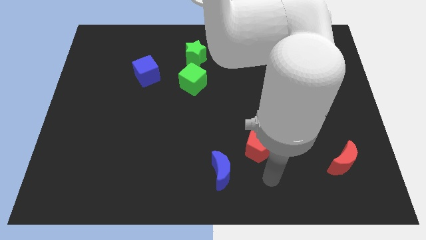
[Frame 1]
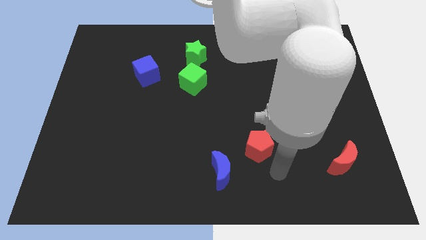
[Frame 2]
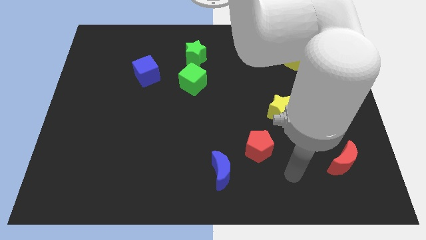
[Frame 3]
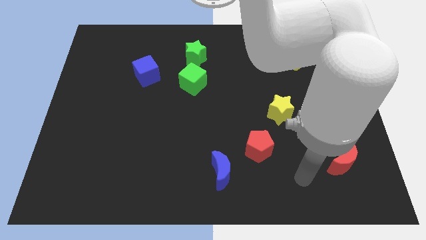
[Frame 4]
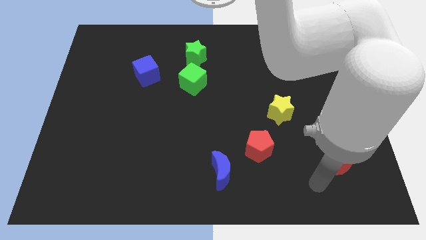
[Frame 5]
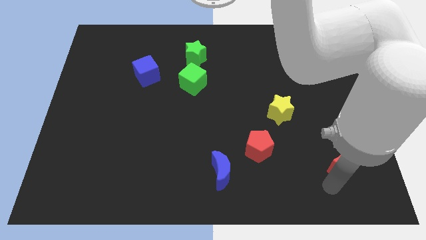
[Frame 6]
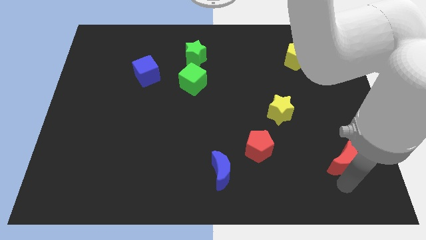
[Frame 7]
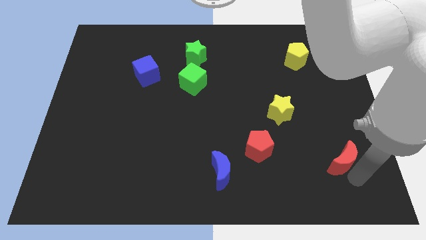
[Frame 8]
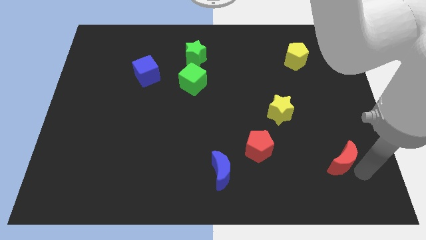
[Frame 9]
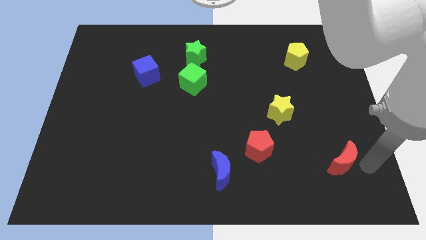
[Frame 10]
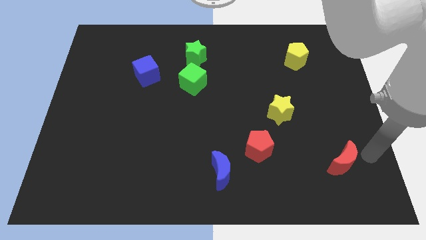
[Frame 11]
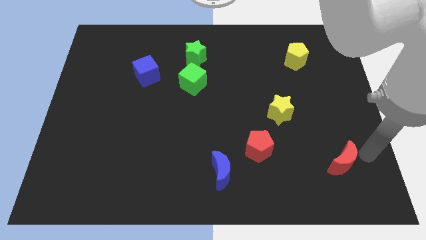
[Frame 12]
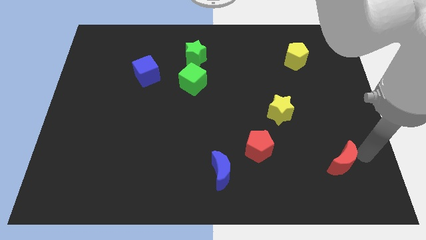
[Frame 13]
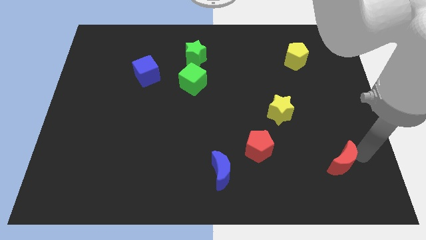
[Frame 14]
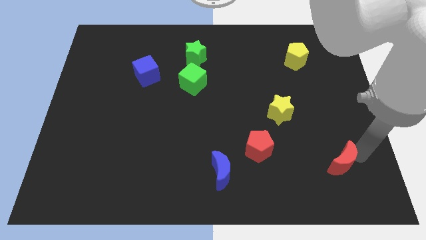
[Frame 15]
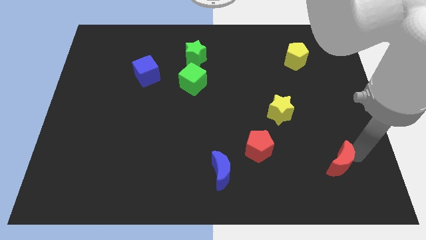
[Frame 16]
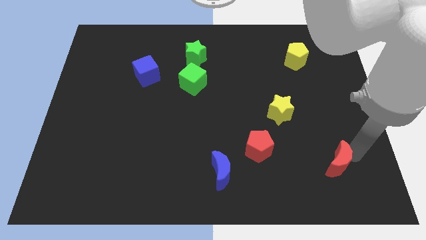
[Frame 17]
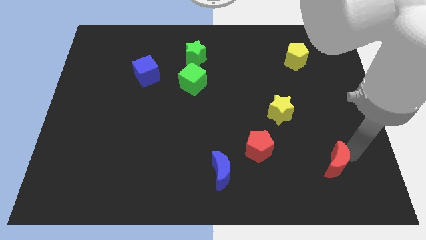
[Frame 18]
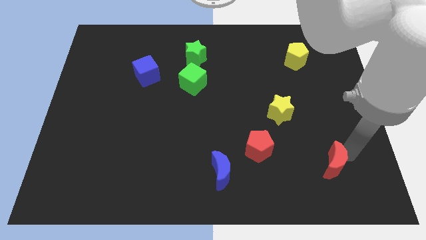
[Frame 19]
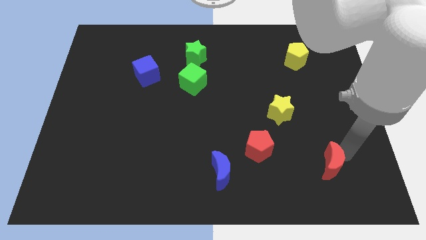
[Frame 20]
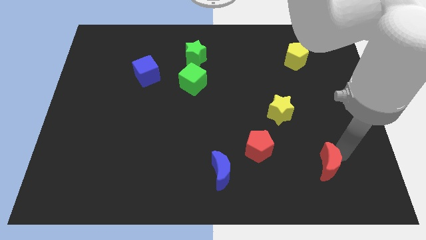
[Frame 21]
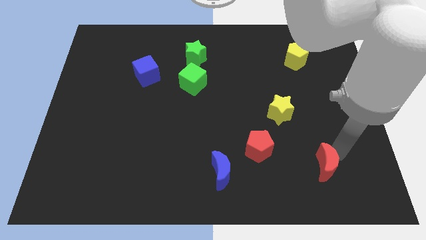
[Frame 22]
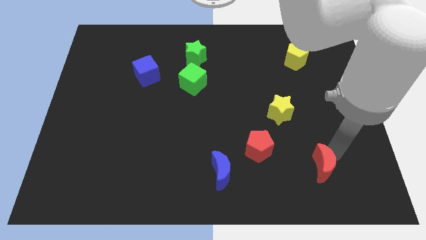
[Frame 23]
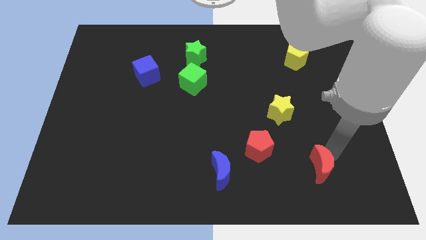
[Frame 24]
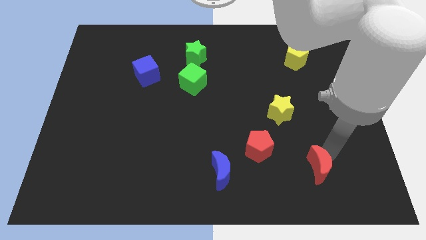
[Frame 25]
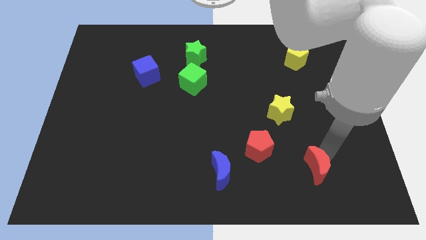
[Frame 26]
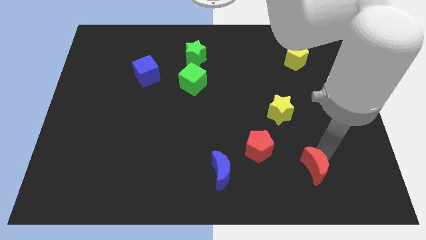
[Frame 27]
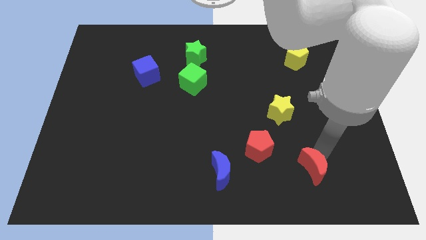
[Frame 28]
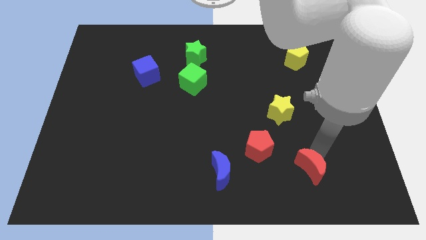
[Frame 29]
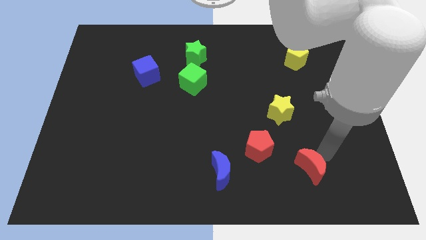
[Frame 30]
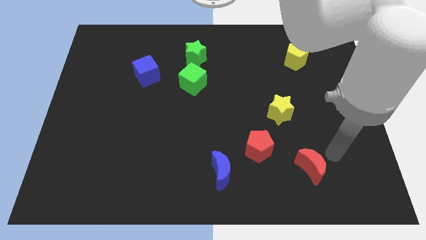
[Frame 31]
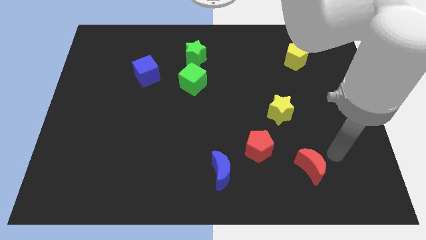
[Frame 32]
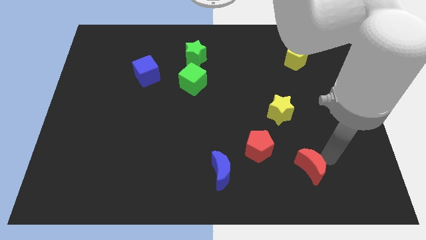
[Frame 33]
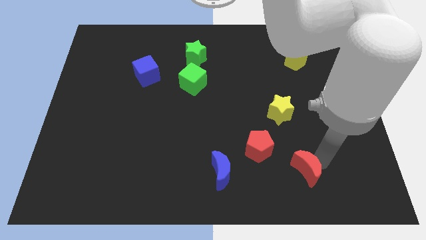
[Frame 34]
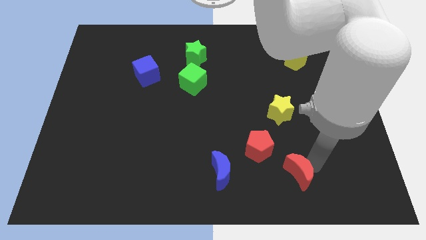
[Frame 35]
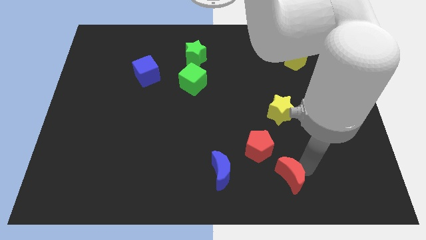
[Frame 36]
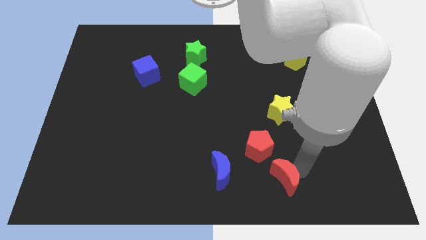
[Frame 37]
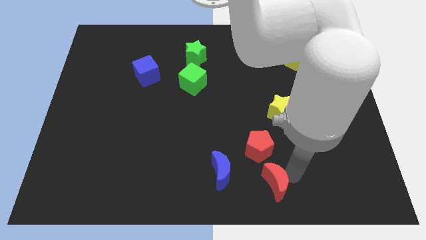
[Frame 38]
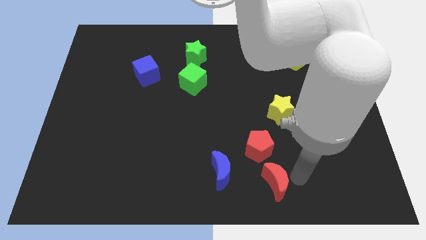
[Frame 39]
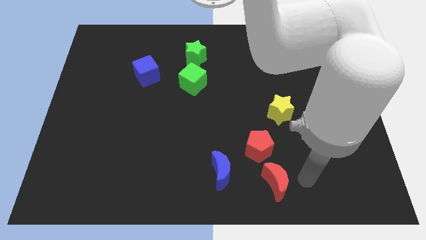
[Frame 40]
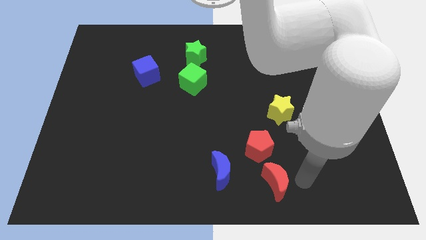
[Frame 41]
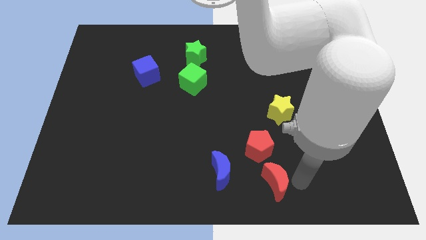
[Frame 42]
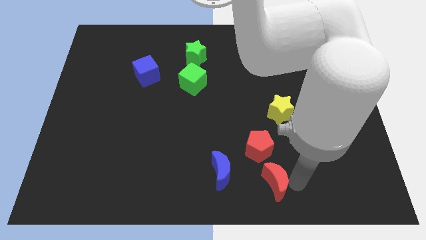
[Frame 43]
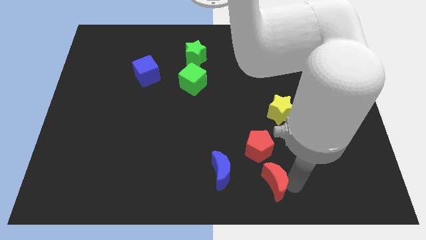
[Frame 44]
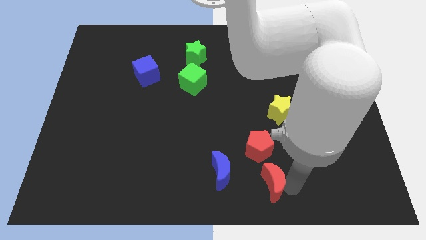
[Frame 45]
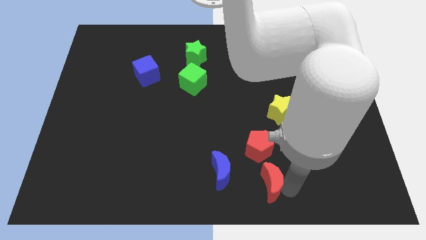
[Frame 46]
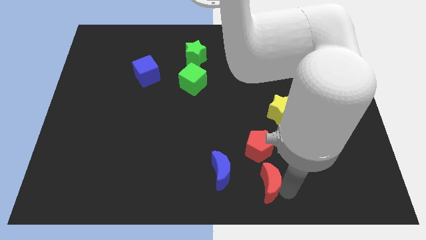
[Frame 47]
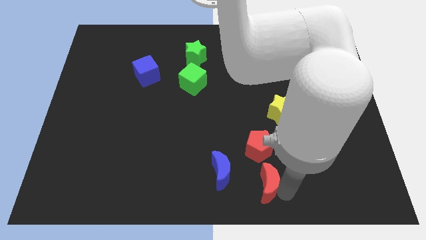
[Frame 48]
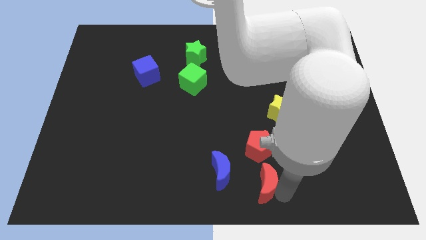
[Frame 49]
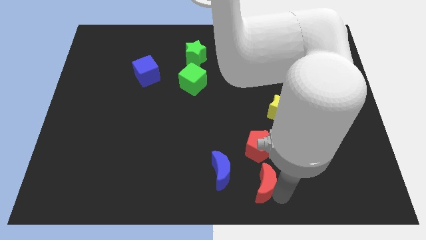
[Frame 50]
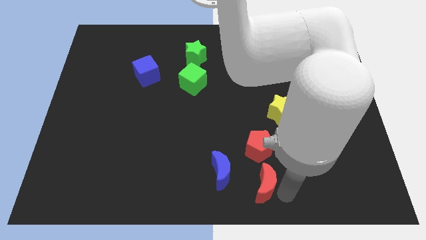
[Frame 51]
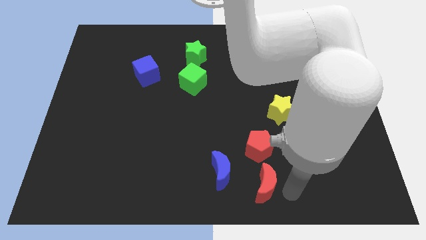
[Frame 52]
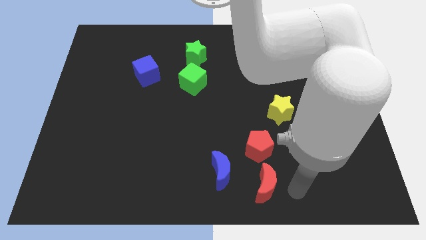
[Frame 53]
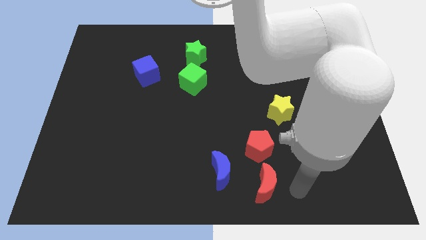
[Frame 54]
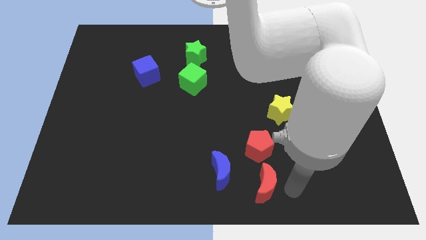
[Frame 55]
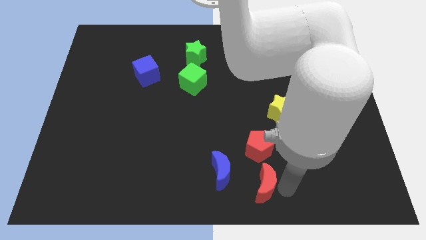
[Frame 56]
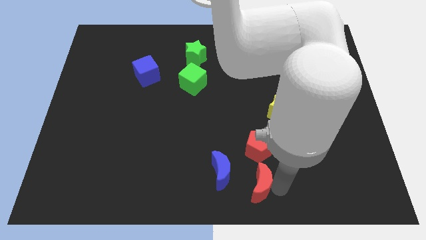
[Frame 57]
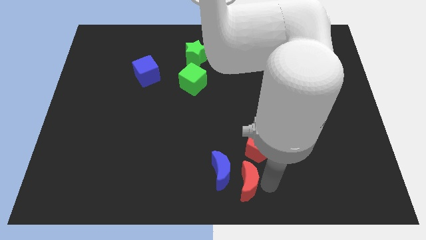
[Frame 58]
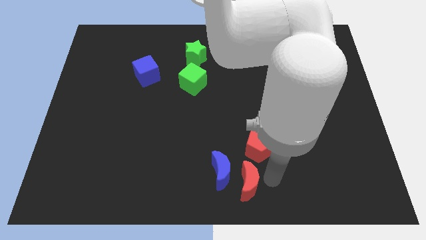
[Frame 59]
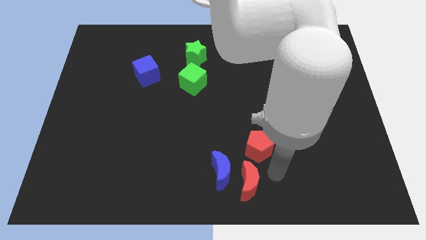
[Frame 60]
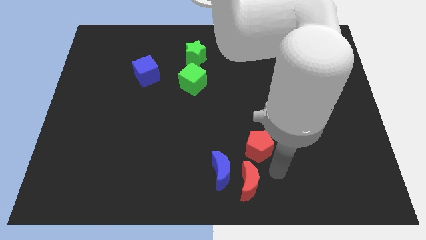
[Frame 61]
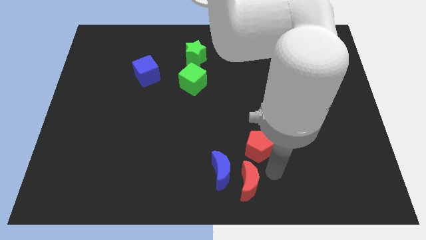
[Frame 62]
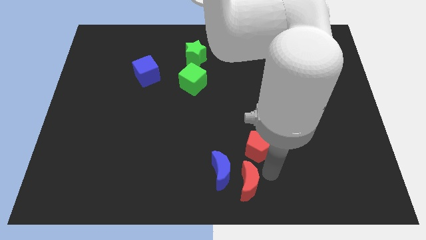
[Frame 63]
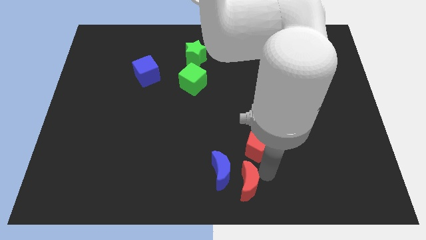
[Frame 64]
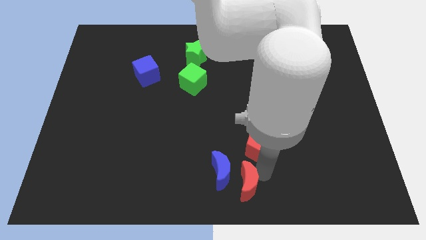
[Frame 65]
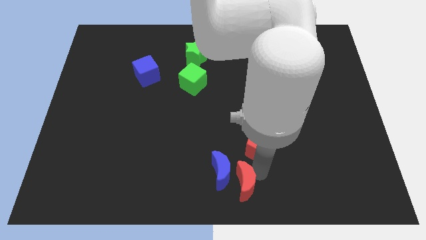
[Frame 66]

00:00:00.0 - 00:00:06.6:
move the red moon left

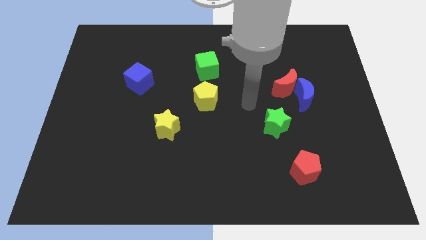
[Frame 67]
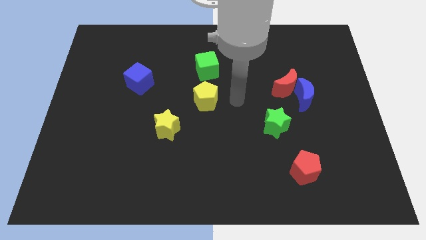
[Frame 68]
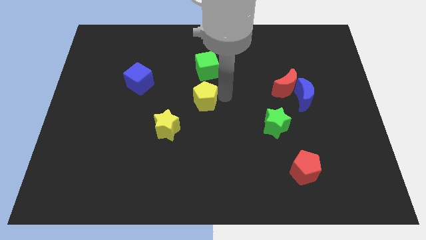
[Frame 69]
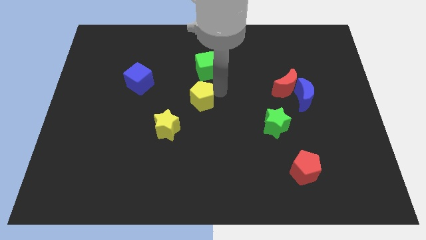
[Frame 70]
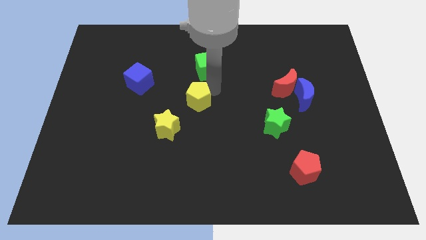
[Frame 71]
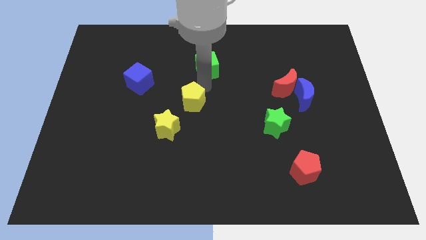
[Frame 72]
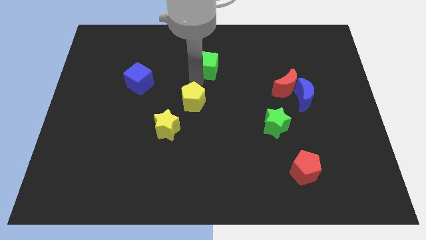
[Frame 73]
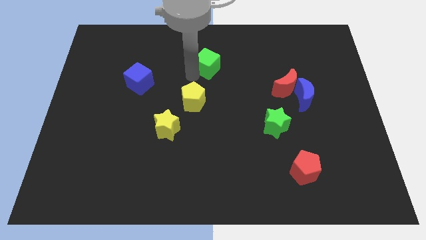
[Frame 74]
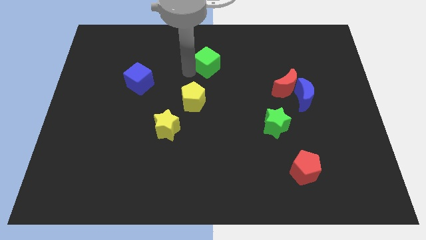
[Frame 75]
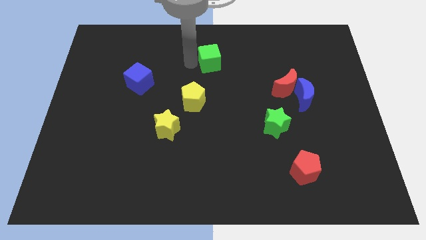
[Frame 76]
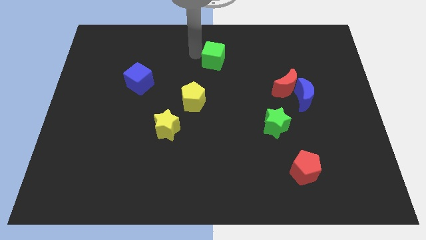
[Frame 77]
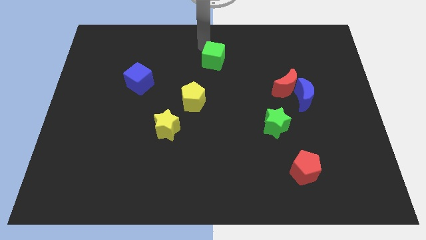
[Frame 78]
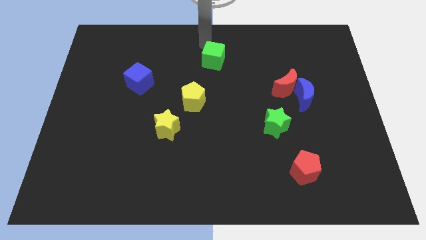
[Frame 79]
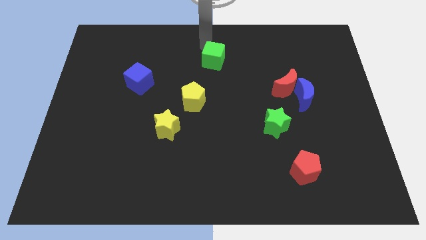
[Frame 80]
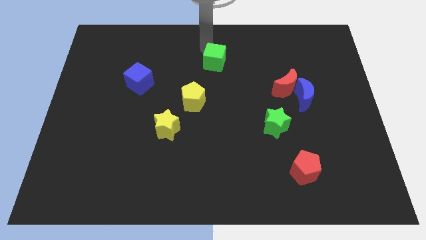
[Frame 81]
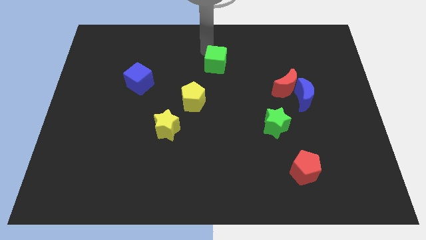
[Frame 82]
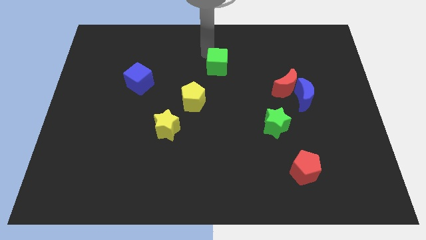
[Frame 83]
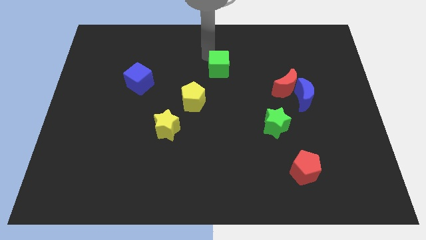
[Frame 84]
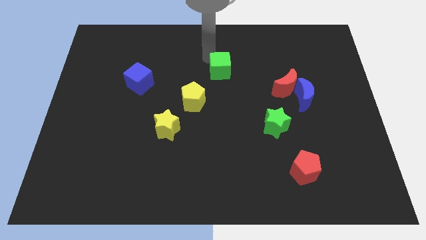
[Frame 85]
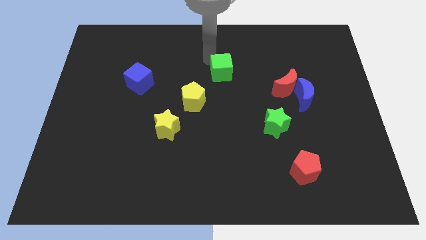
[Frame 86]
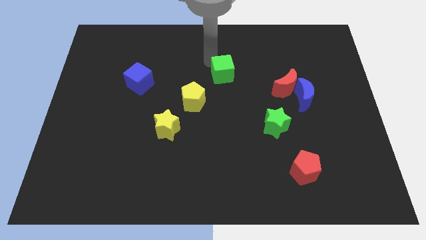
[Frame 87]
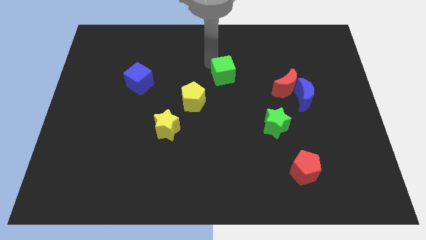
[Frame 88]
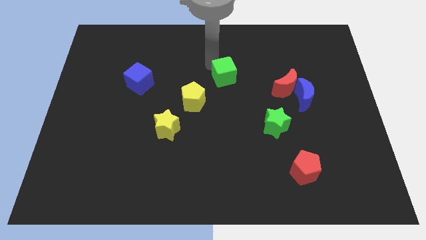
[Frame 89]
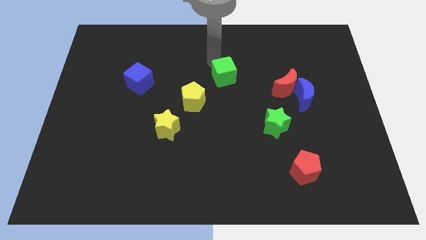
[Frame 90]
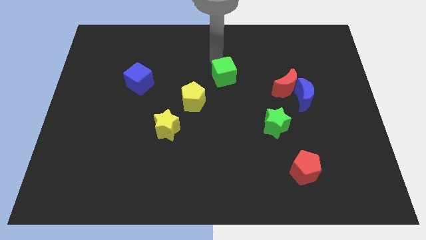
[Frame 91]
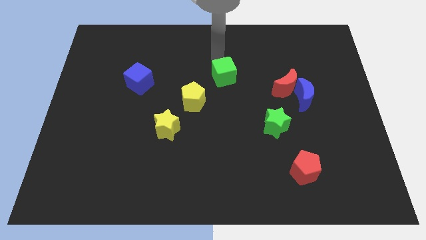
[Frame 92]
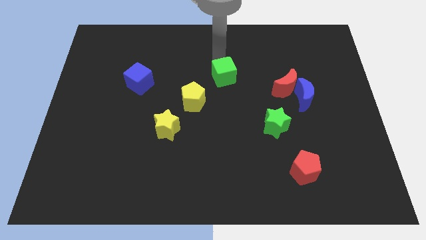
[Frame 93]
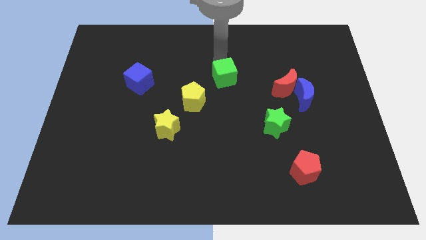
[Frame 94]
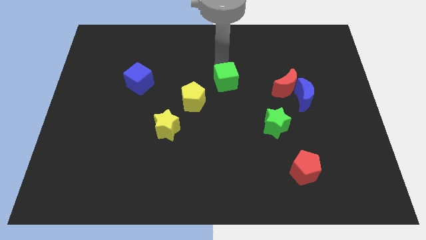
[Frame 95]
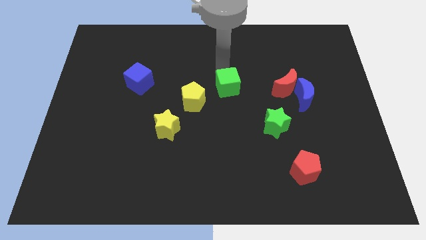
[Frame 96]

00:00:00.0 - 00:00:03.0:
push the green cube diagonally down and to the right a little bit
